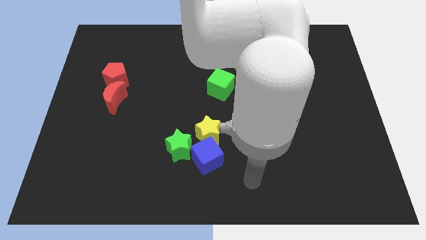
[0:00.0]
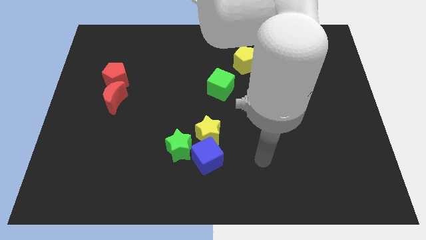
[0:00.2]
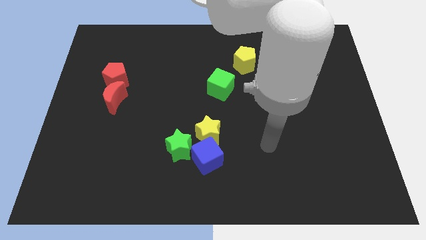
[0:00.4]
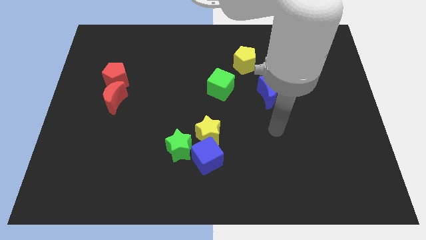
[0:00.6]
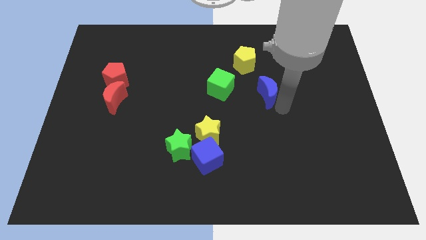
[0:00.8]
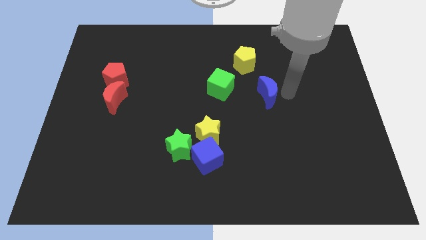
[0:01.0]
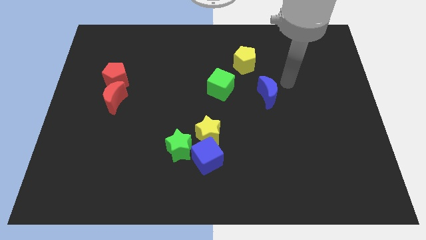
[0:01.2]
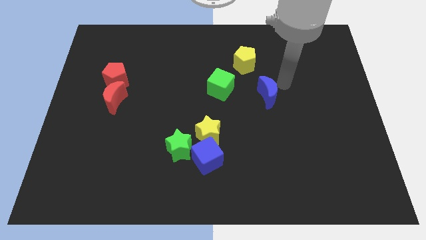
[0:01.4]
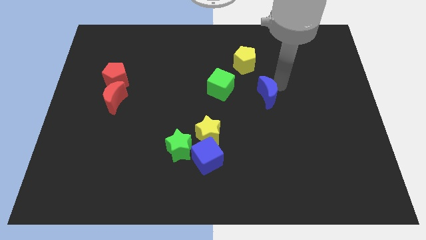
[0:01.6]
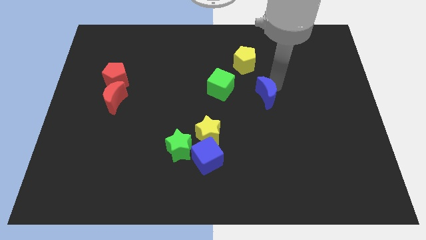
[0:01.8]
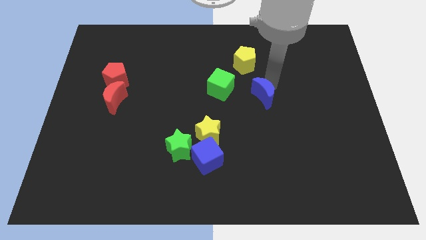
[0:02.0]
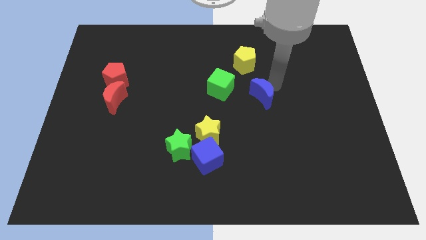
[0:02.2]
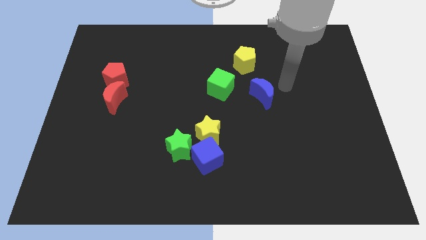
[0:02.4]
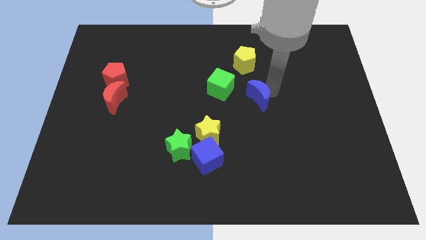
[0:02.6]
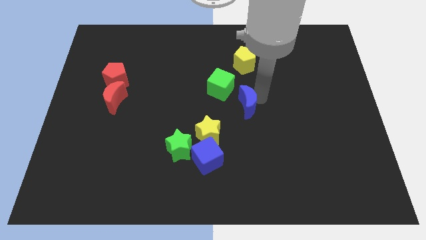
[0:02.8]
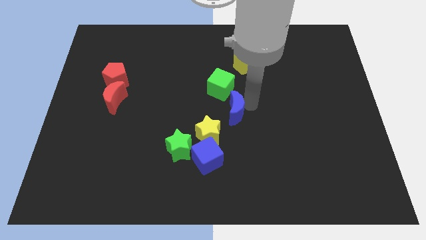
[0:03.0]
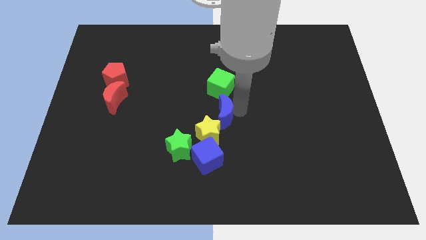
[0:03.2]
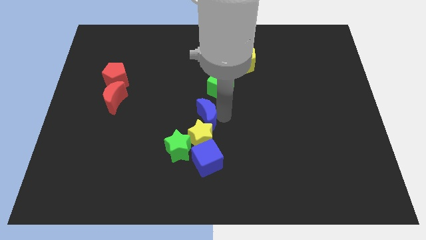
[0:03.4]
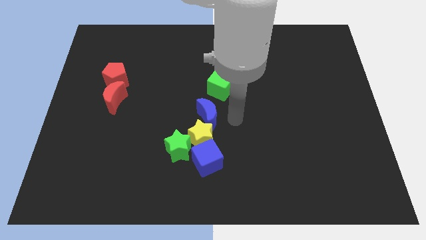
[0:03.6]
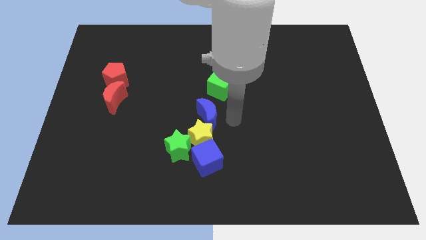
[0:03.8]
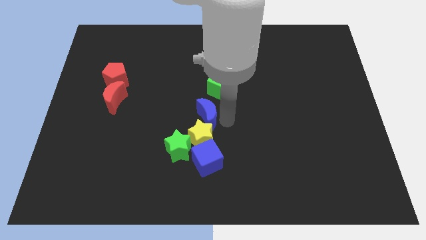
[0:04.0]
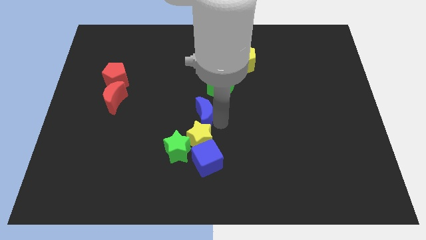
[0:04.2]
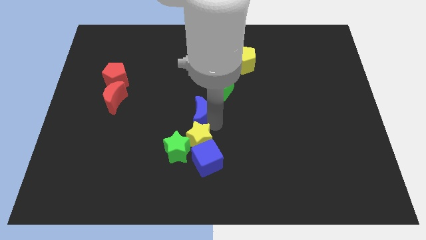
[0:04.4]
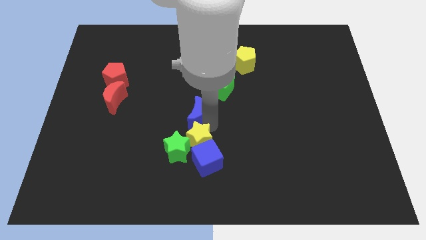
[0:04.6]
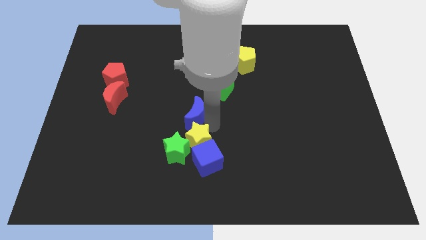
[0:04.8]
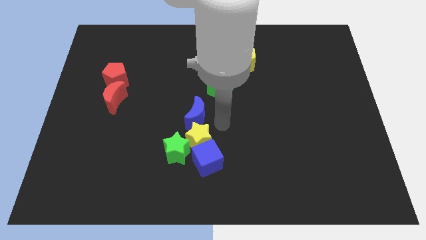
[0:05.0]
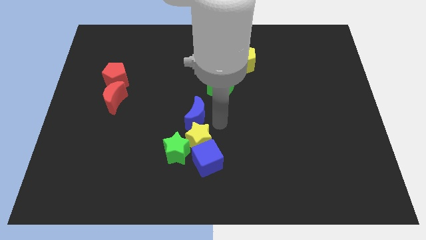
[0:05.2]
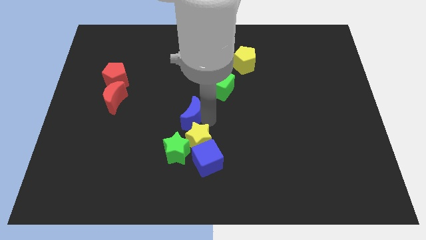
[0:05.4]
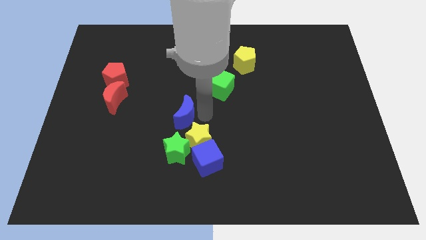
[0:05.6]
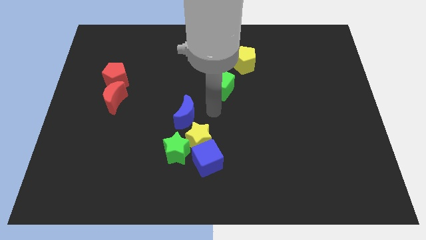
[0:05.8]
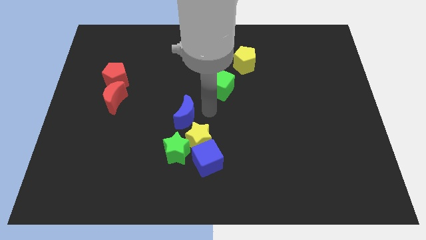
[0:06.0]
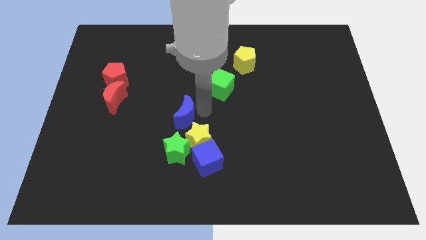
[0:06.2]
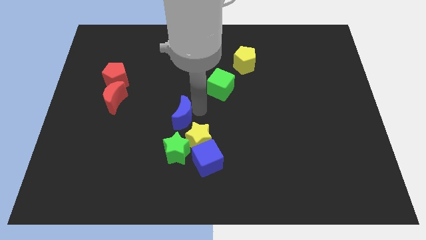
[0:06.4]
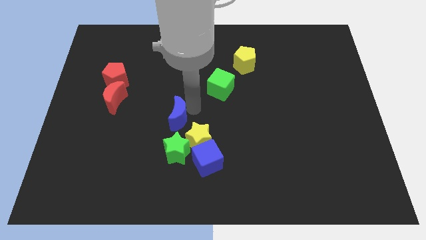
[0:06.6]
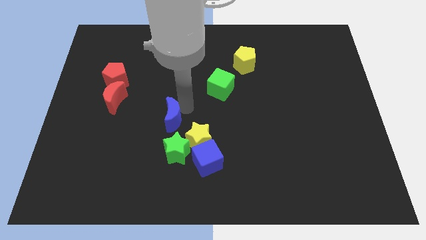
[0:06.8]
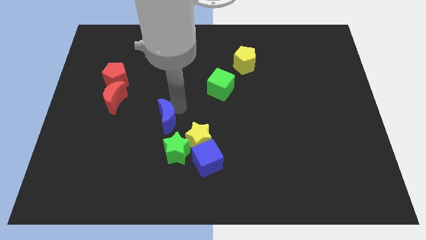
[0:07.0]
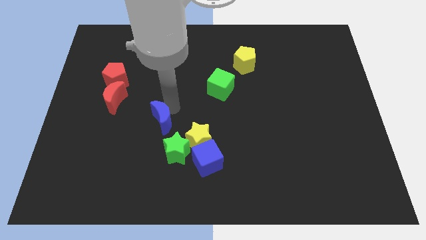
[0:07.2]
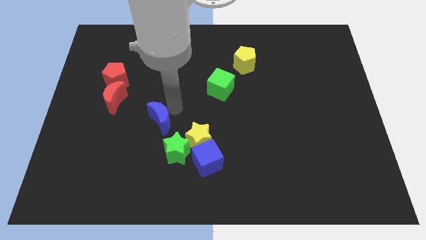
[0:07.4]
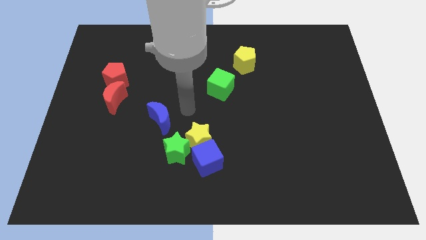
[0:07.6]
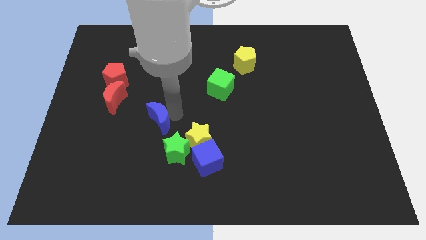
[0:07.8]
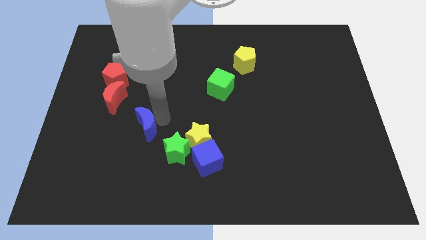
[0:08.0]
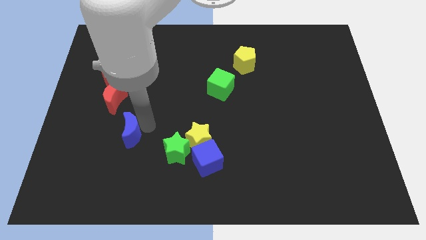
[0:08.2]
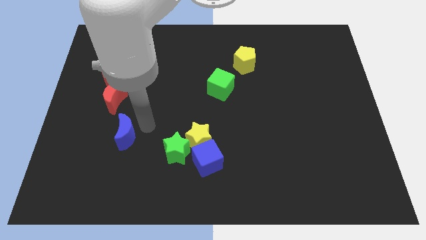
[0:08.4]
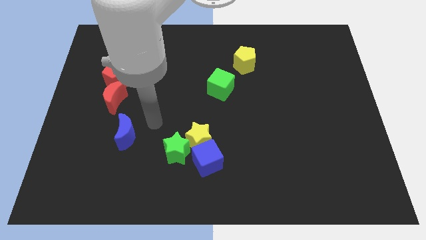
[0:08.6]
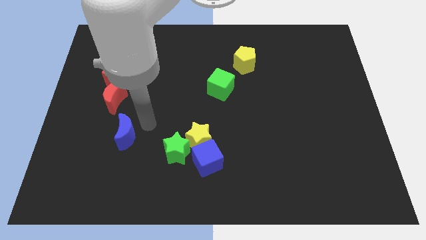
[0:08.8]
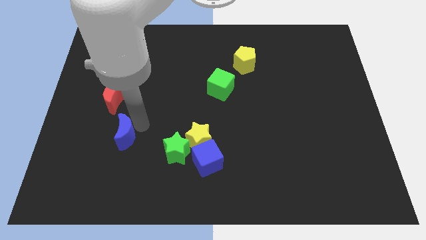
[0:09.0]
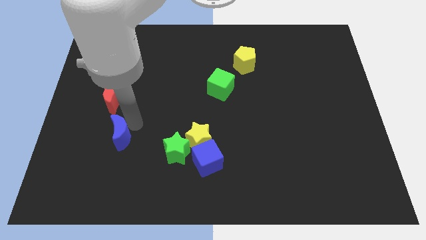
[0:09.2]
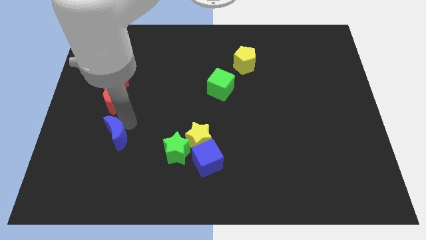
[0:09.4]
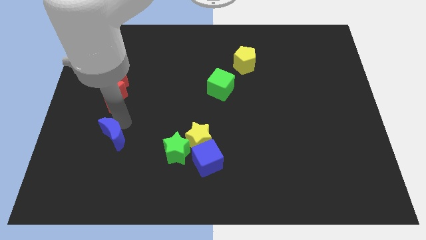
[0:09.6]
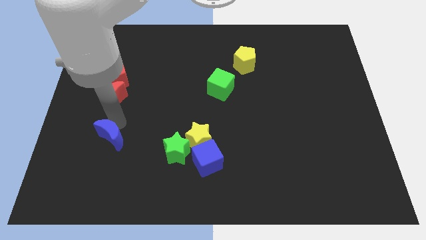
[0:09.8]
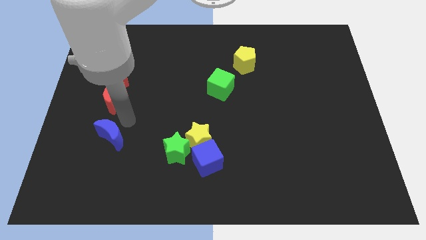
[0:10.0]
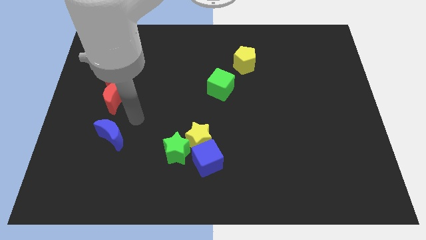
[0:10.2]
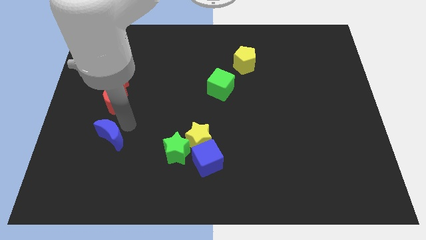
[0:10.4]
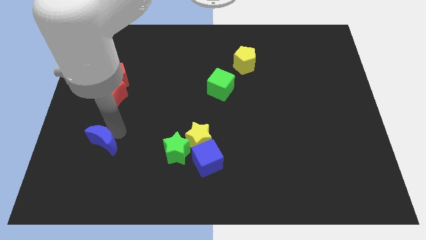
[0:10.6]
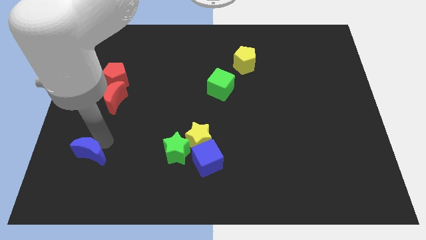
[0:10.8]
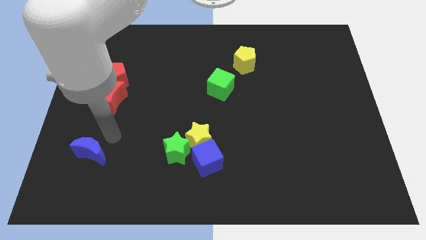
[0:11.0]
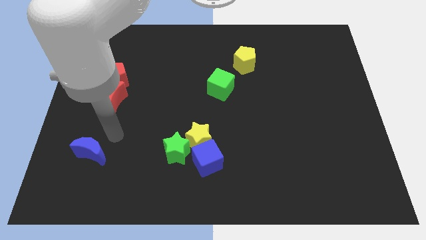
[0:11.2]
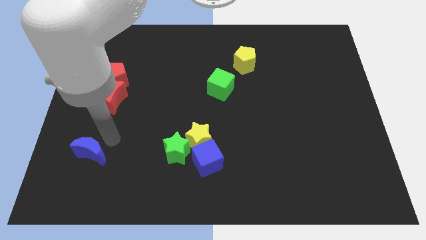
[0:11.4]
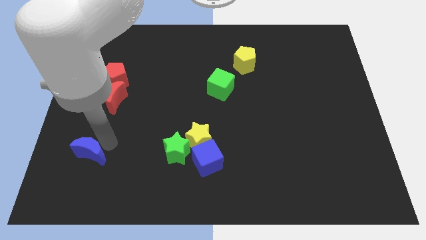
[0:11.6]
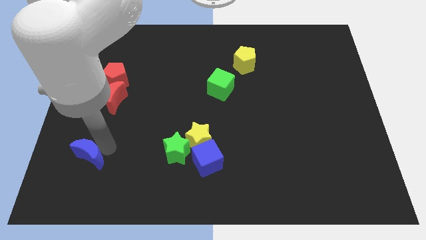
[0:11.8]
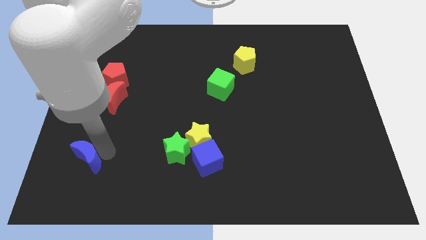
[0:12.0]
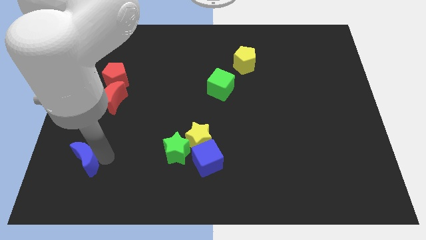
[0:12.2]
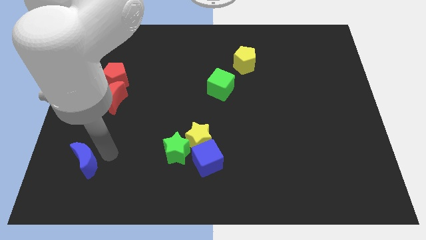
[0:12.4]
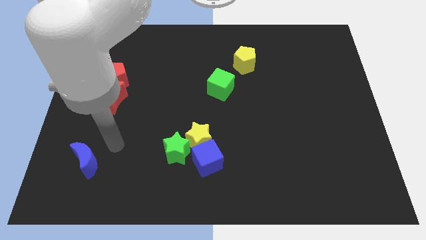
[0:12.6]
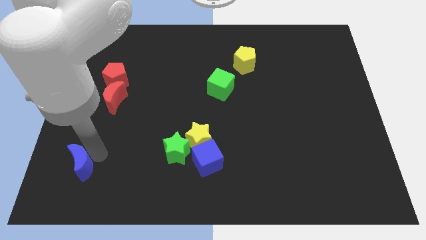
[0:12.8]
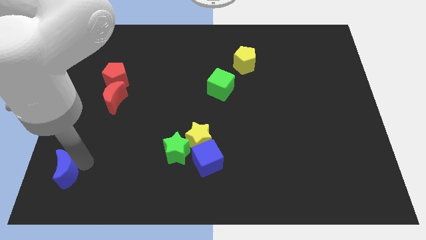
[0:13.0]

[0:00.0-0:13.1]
slide the blue moon to the bottom left of the board

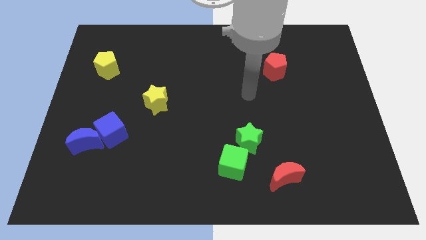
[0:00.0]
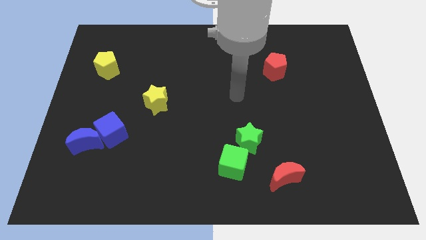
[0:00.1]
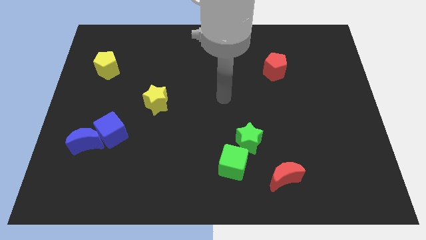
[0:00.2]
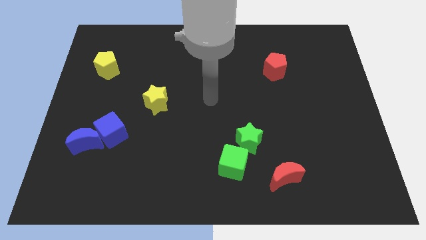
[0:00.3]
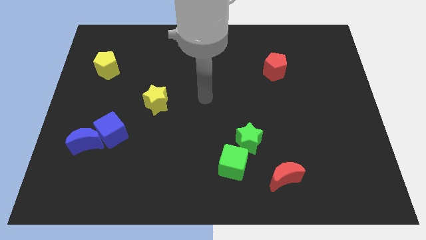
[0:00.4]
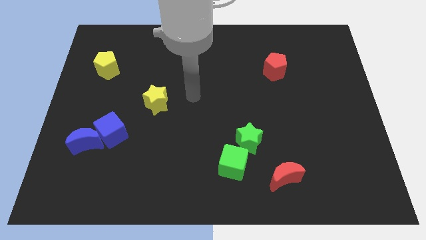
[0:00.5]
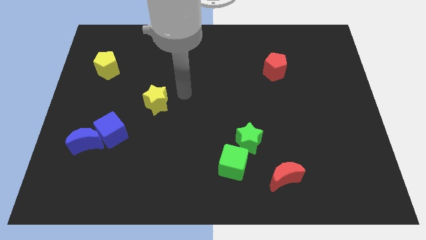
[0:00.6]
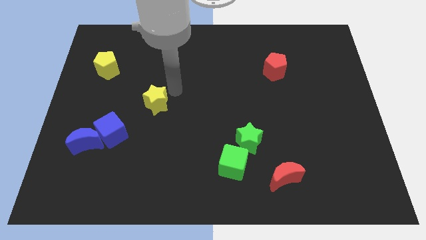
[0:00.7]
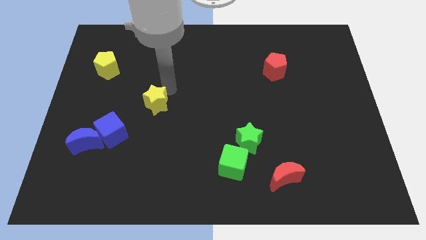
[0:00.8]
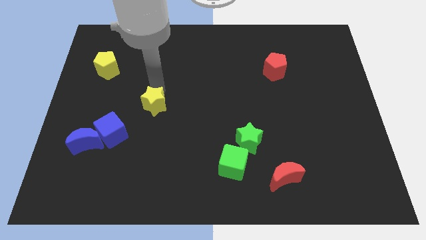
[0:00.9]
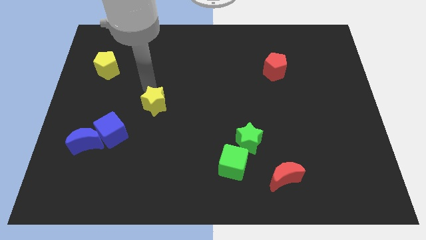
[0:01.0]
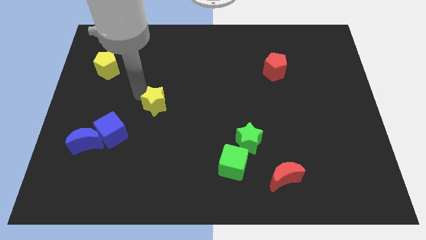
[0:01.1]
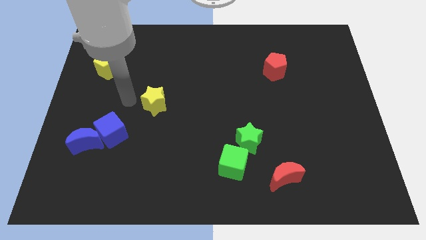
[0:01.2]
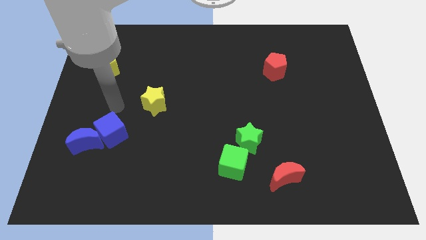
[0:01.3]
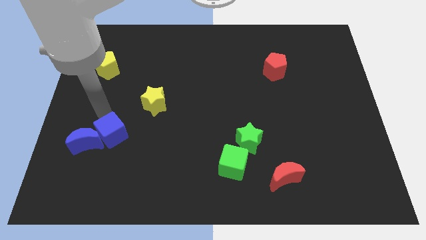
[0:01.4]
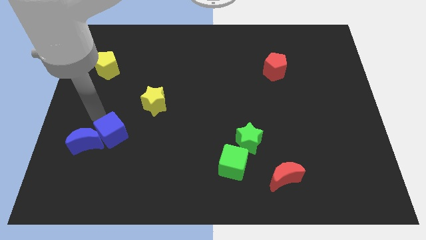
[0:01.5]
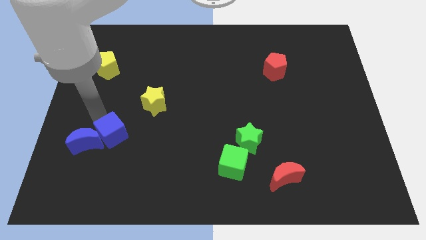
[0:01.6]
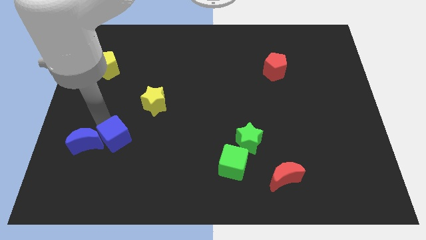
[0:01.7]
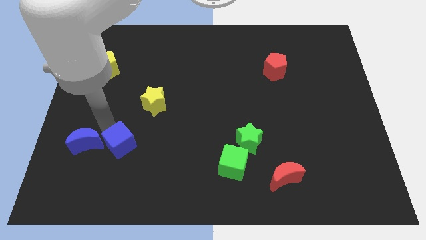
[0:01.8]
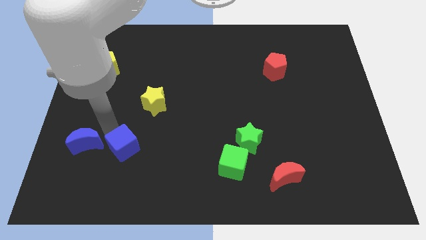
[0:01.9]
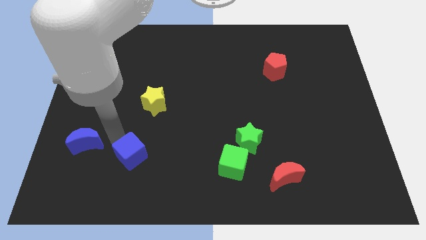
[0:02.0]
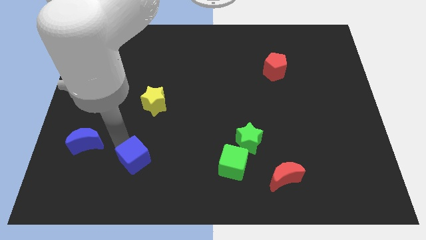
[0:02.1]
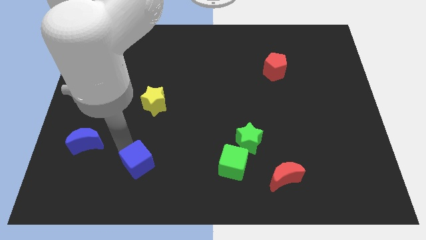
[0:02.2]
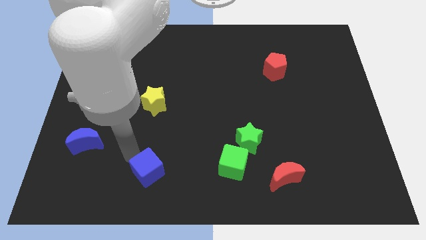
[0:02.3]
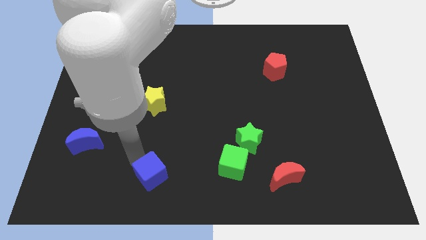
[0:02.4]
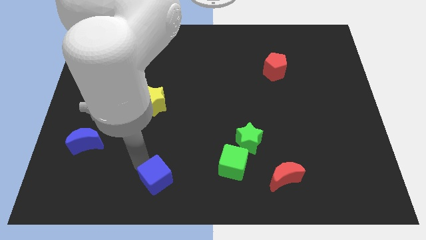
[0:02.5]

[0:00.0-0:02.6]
move the blue cube to the bottom
